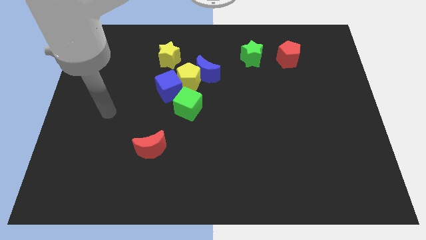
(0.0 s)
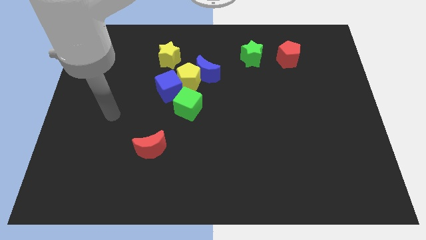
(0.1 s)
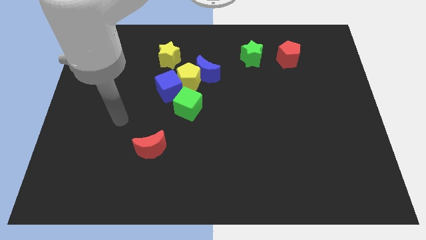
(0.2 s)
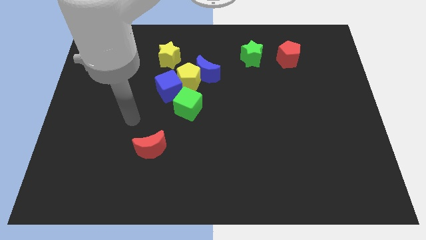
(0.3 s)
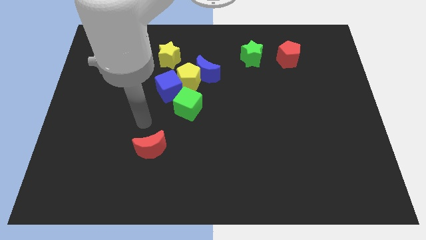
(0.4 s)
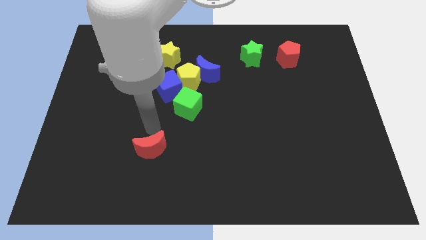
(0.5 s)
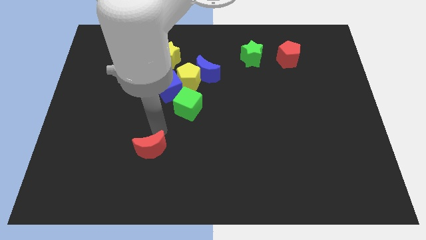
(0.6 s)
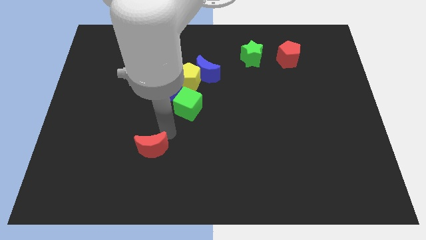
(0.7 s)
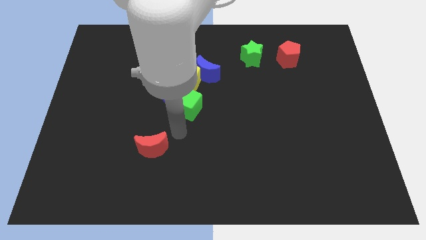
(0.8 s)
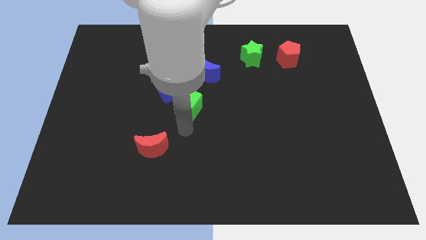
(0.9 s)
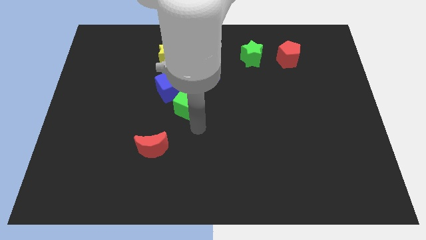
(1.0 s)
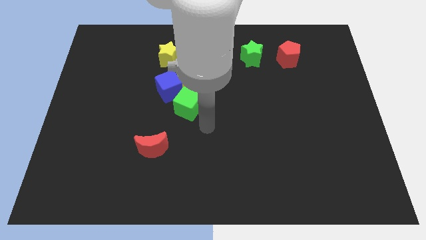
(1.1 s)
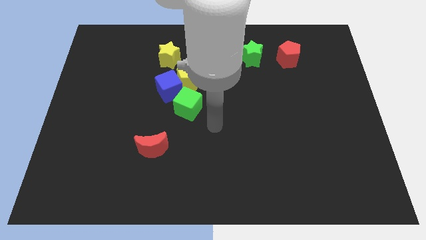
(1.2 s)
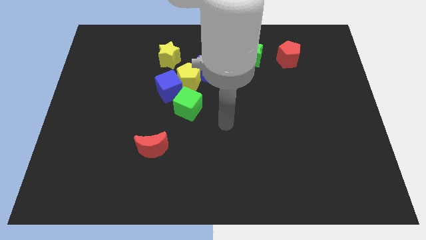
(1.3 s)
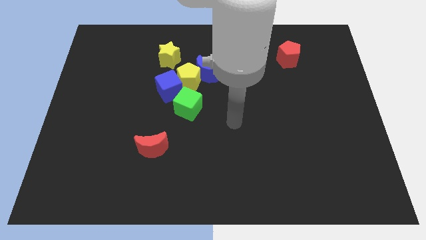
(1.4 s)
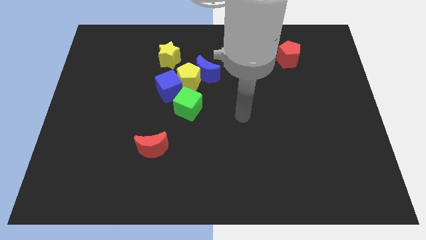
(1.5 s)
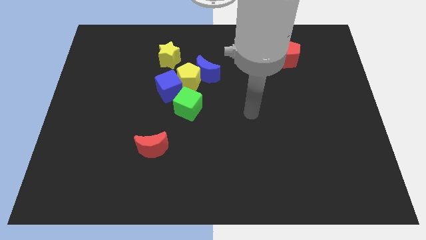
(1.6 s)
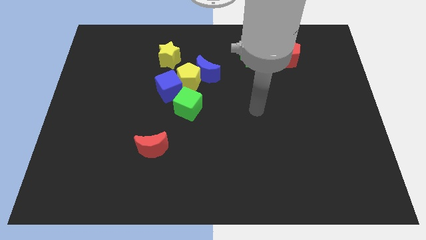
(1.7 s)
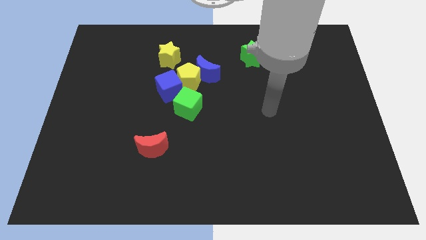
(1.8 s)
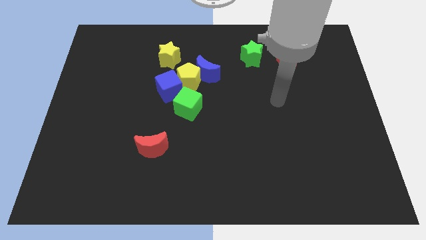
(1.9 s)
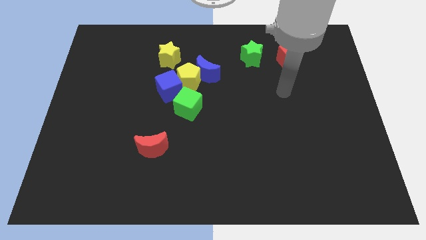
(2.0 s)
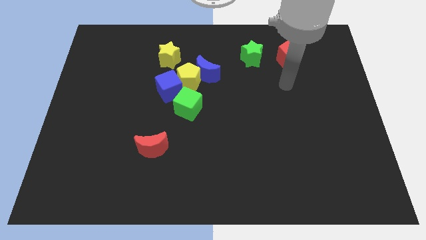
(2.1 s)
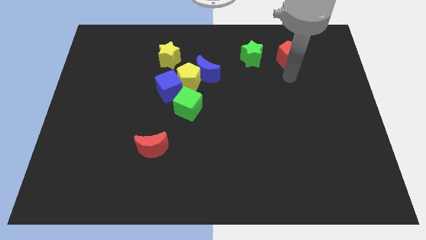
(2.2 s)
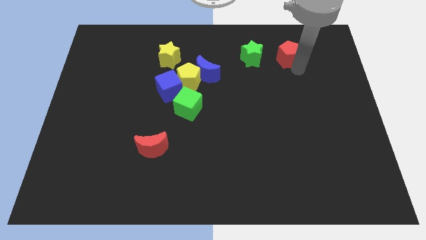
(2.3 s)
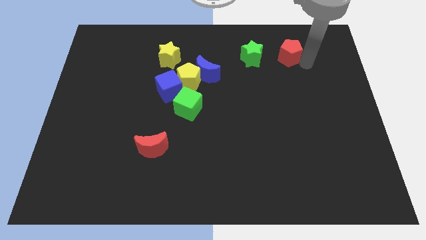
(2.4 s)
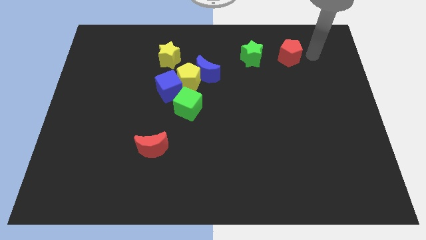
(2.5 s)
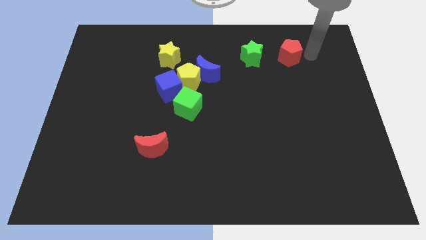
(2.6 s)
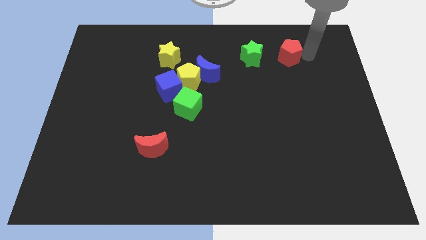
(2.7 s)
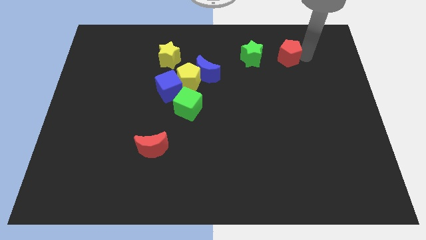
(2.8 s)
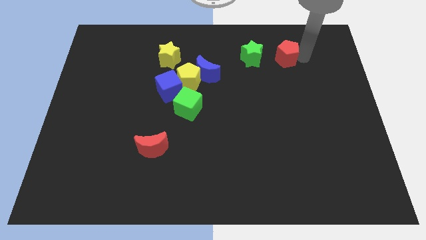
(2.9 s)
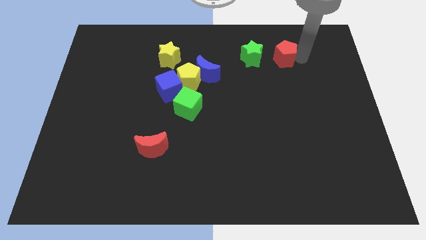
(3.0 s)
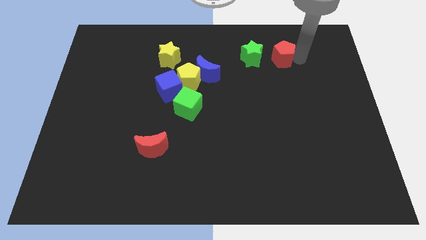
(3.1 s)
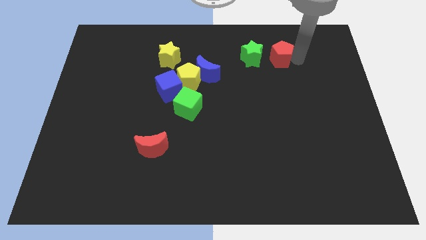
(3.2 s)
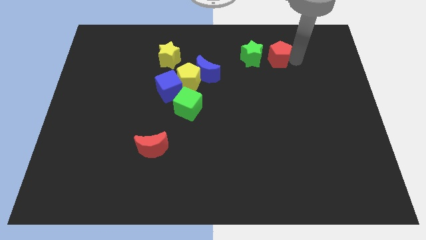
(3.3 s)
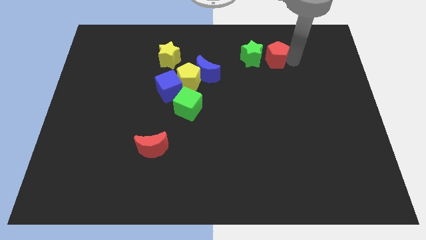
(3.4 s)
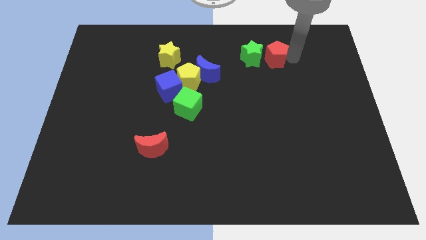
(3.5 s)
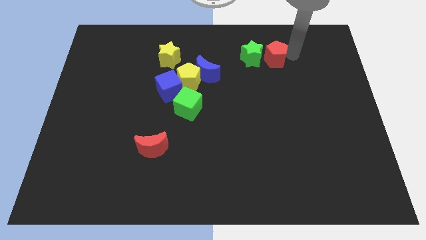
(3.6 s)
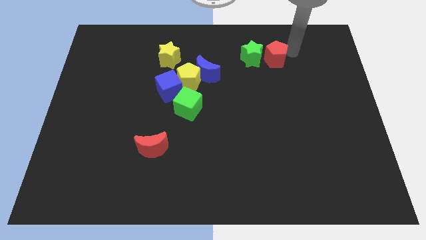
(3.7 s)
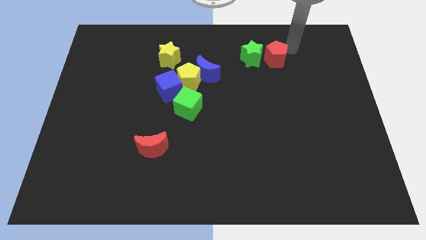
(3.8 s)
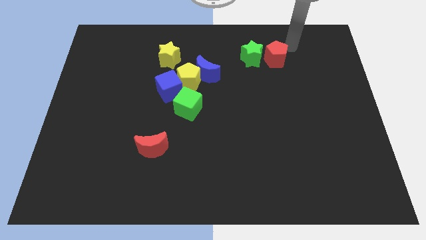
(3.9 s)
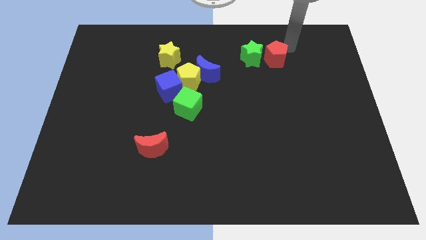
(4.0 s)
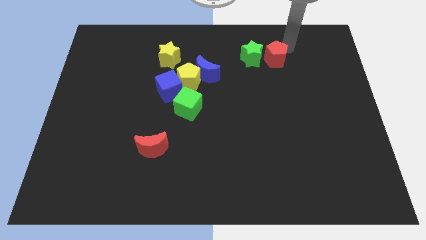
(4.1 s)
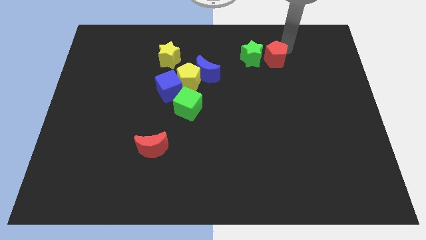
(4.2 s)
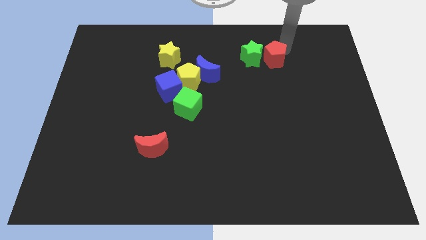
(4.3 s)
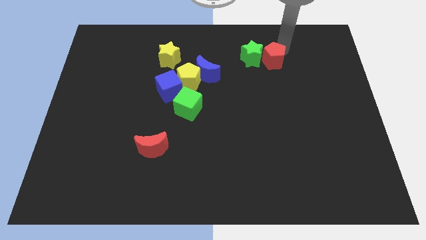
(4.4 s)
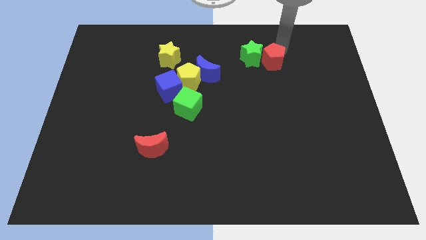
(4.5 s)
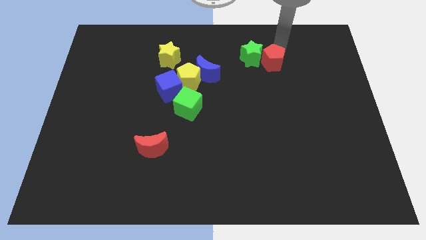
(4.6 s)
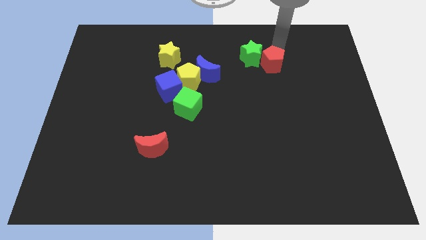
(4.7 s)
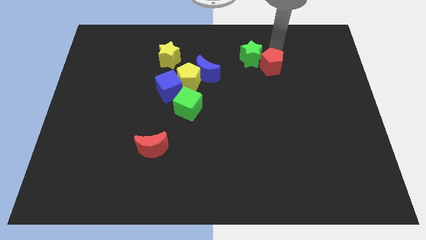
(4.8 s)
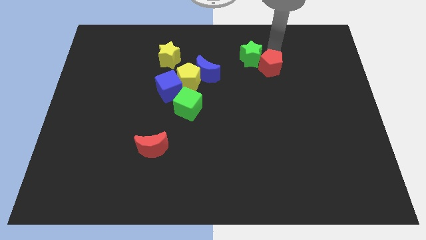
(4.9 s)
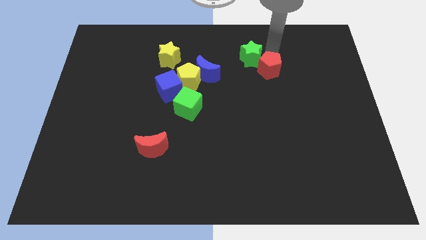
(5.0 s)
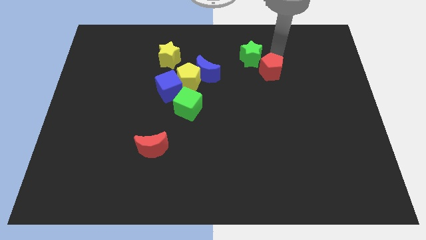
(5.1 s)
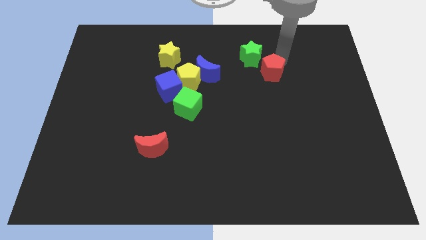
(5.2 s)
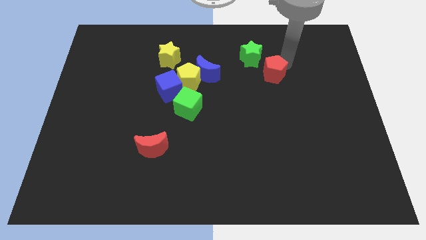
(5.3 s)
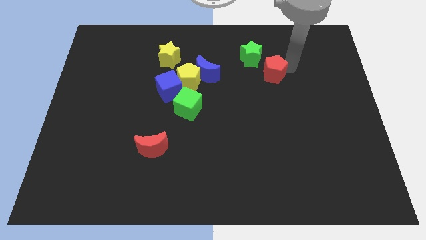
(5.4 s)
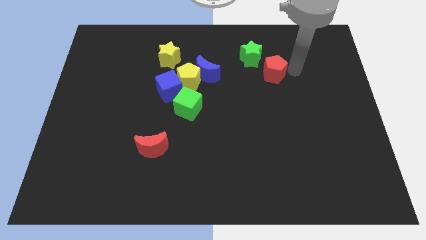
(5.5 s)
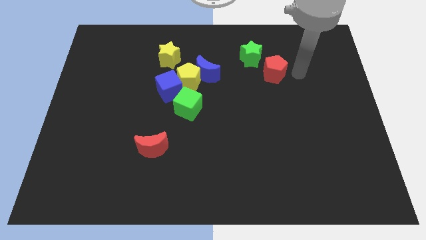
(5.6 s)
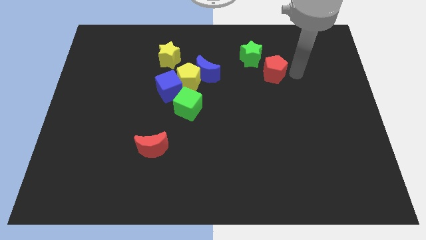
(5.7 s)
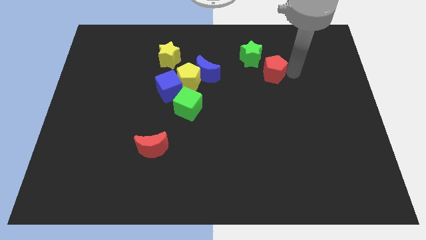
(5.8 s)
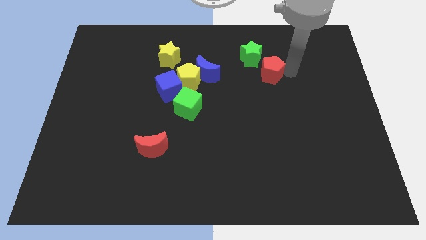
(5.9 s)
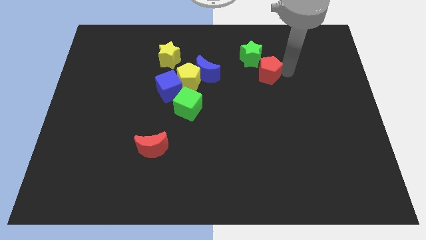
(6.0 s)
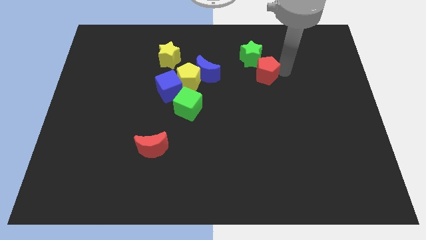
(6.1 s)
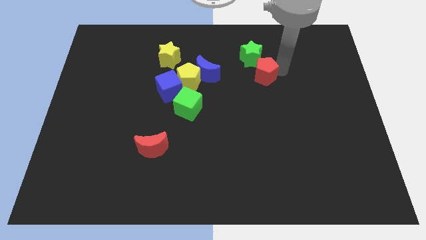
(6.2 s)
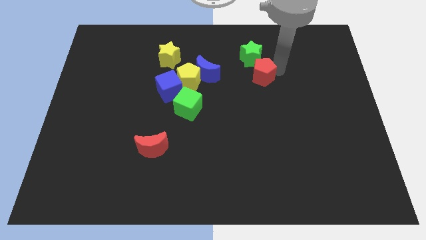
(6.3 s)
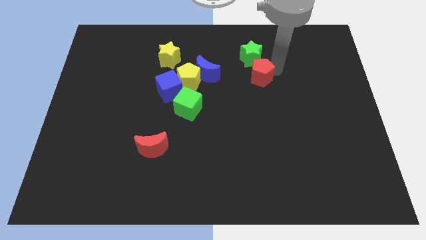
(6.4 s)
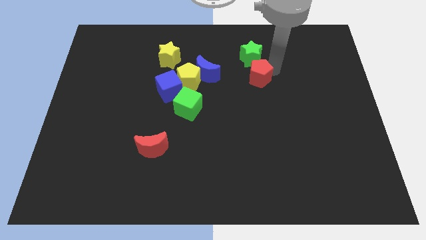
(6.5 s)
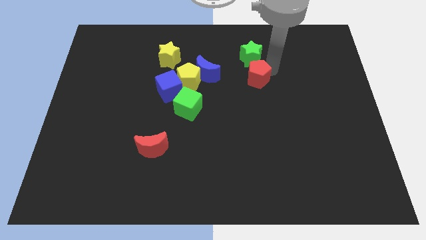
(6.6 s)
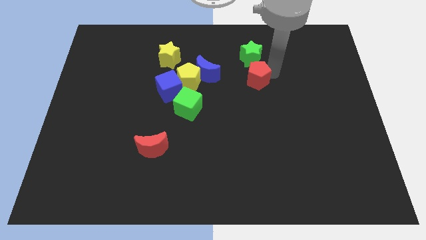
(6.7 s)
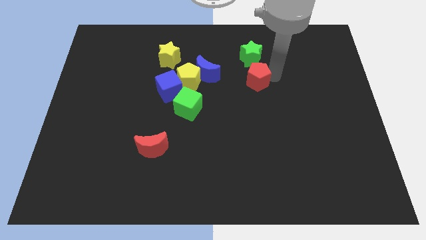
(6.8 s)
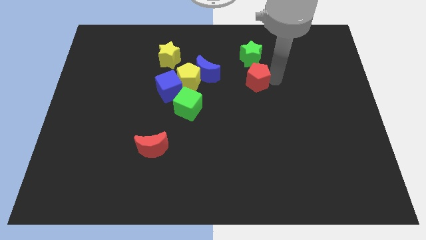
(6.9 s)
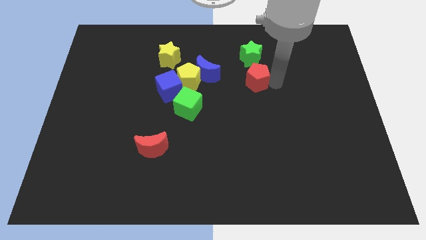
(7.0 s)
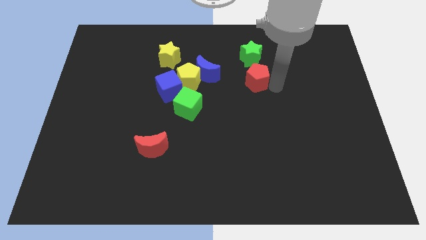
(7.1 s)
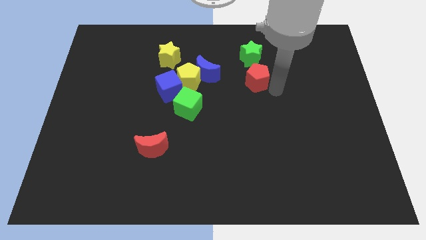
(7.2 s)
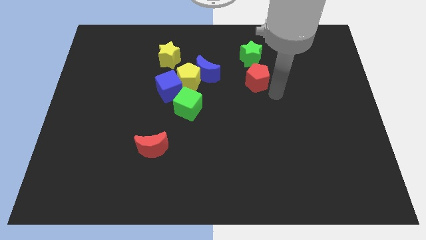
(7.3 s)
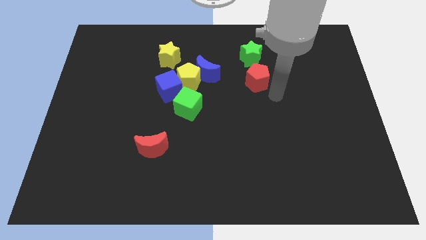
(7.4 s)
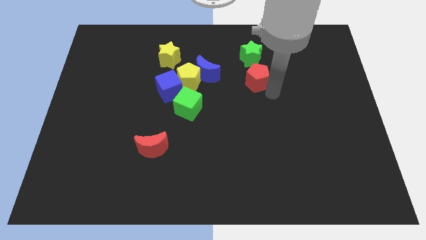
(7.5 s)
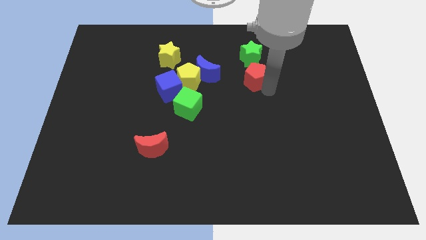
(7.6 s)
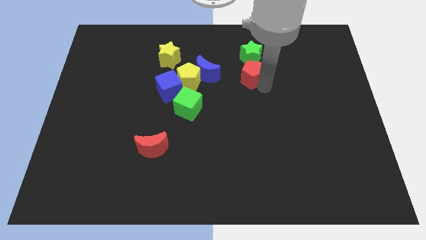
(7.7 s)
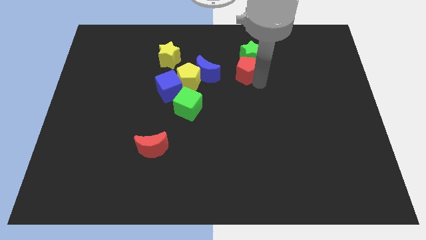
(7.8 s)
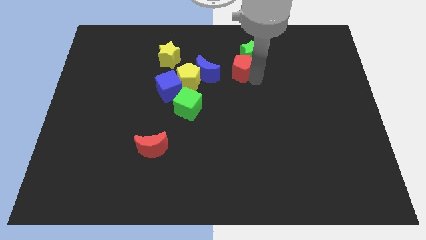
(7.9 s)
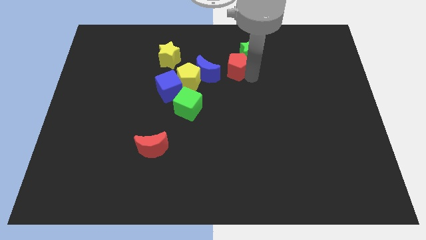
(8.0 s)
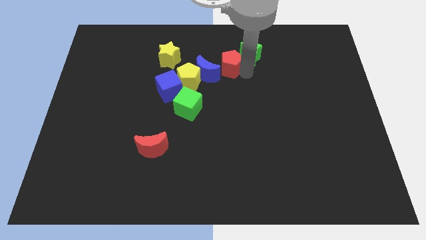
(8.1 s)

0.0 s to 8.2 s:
put the red pentagon to the top right side of the yellow pentagon
